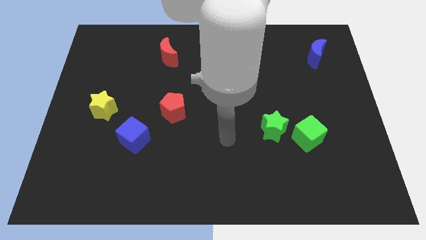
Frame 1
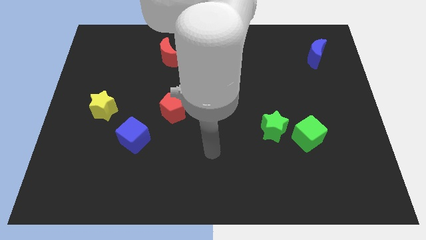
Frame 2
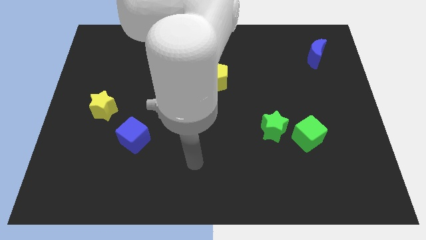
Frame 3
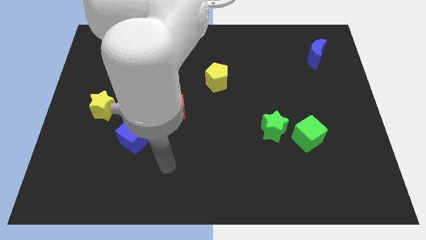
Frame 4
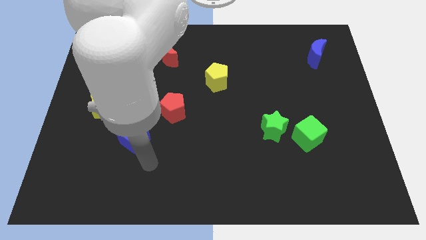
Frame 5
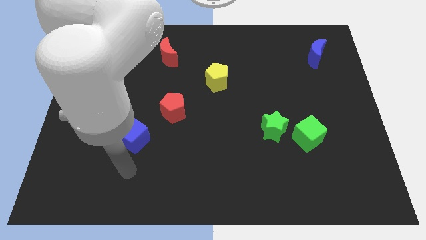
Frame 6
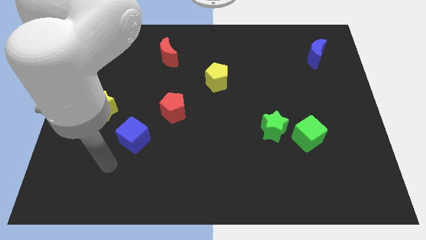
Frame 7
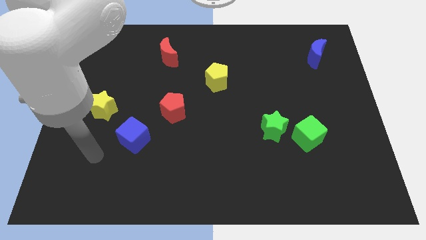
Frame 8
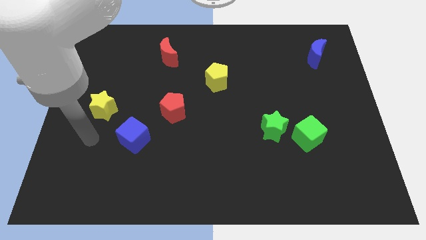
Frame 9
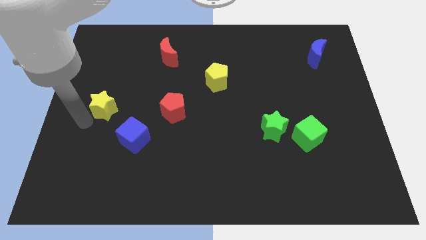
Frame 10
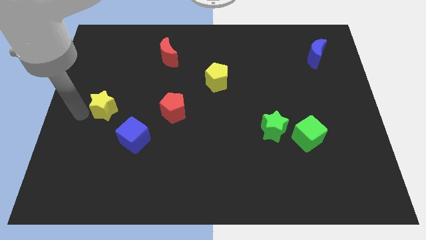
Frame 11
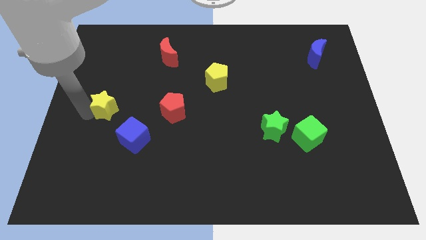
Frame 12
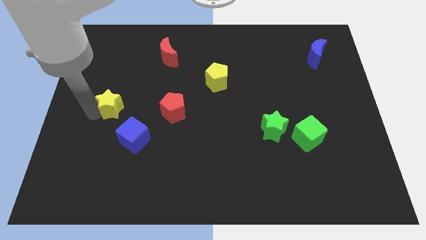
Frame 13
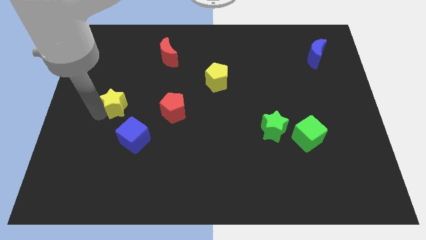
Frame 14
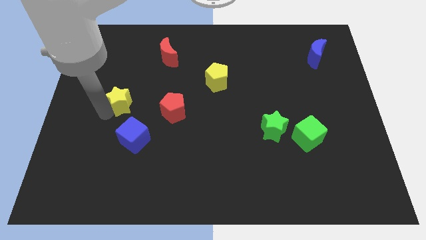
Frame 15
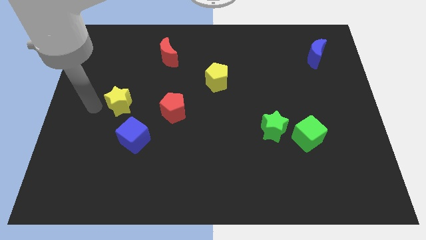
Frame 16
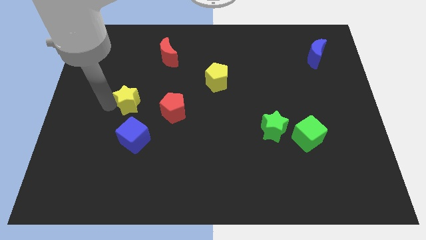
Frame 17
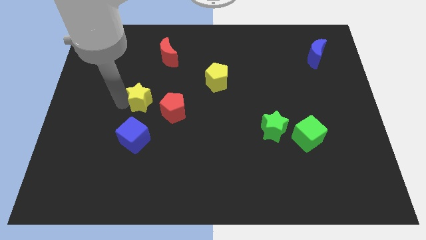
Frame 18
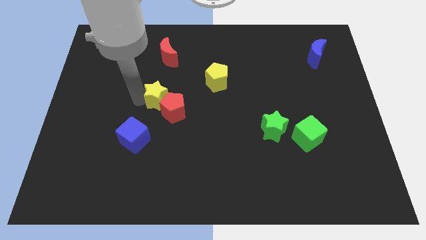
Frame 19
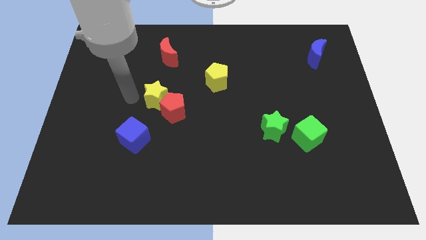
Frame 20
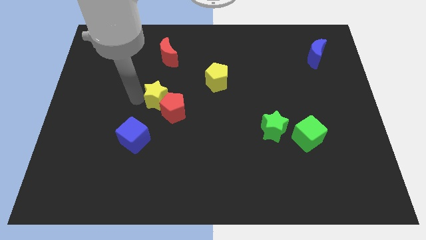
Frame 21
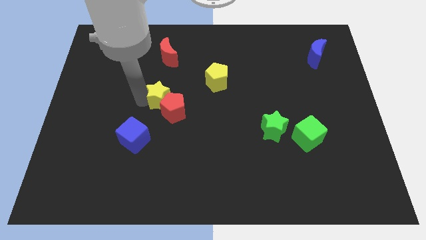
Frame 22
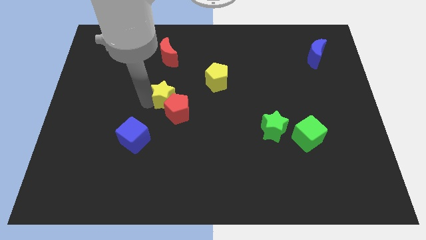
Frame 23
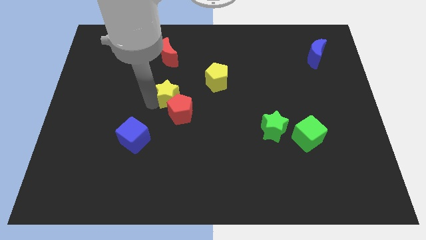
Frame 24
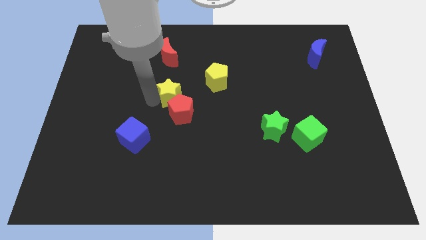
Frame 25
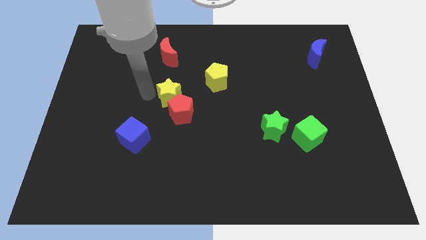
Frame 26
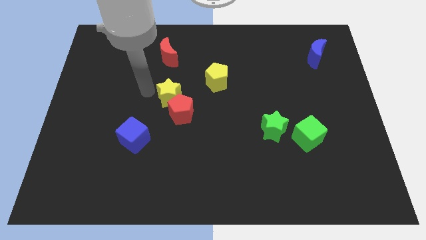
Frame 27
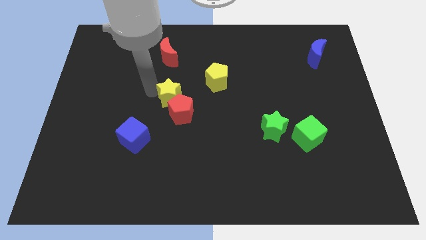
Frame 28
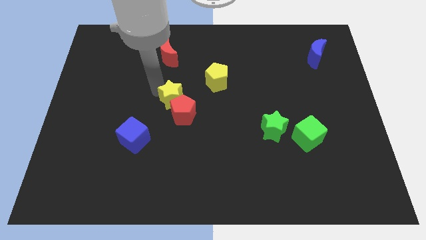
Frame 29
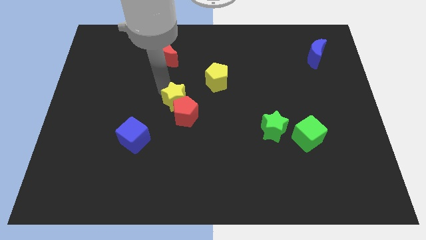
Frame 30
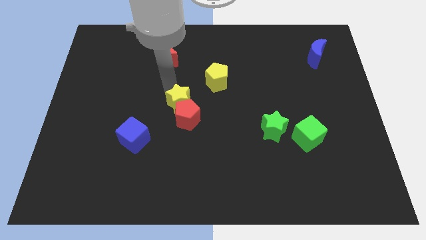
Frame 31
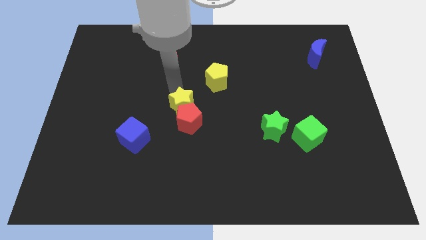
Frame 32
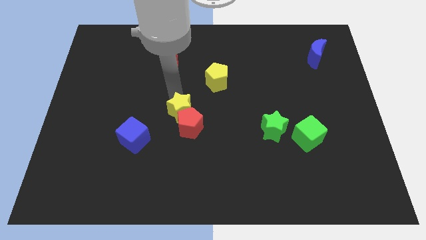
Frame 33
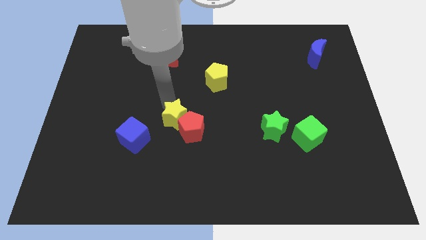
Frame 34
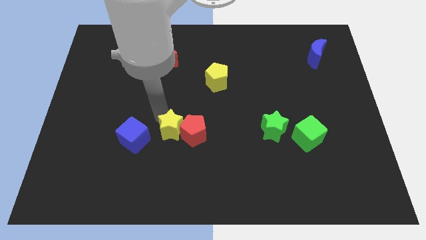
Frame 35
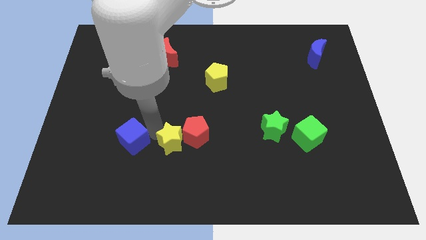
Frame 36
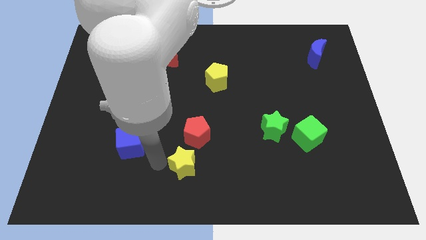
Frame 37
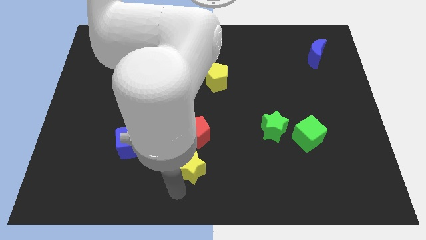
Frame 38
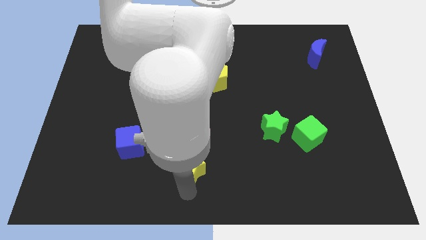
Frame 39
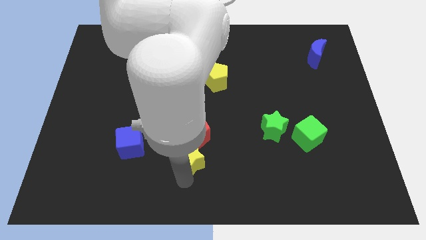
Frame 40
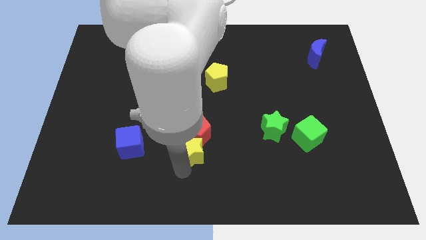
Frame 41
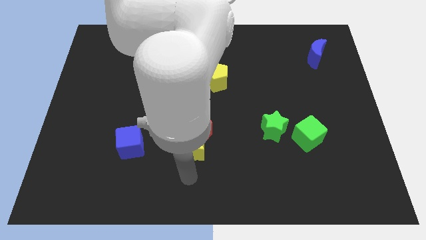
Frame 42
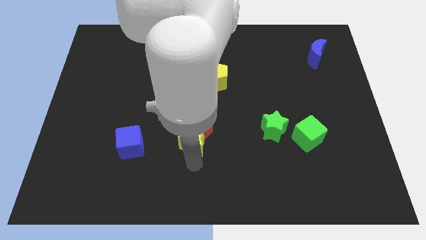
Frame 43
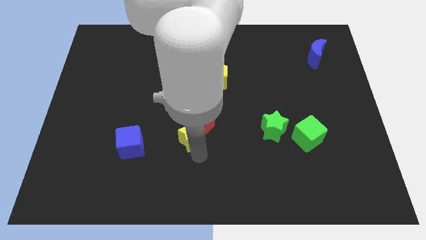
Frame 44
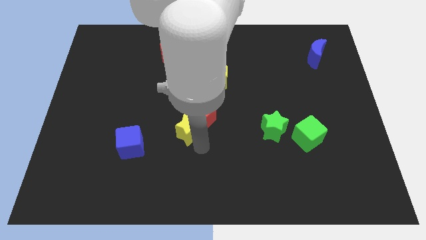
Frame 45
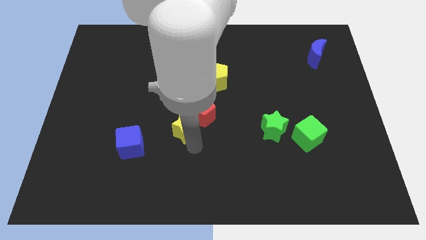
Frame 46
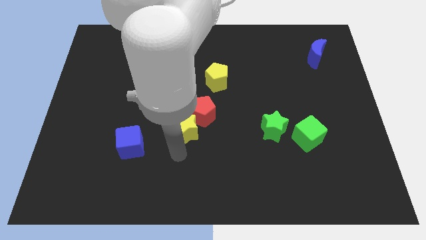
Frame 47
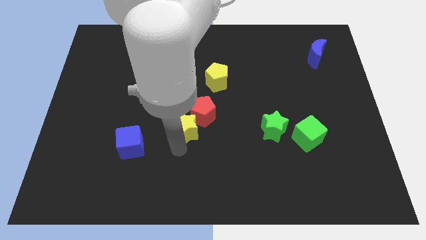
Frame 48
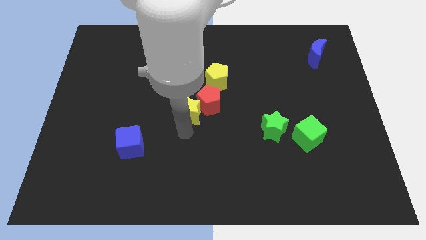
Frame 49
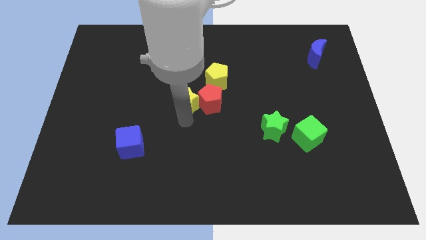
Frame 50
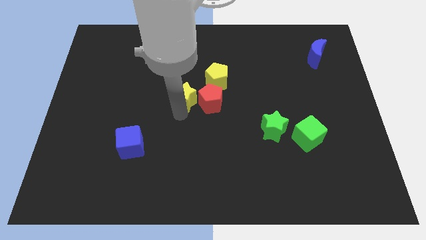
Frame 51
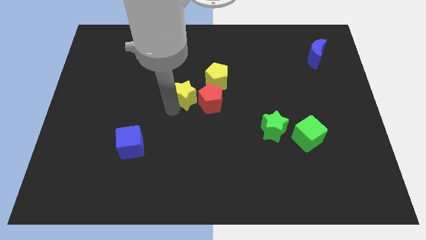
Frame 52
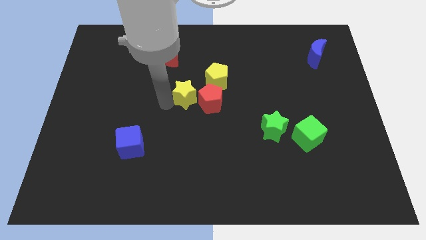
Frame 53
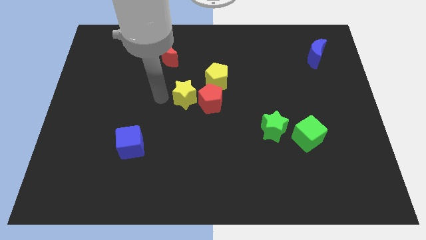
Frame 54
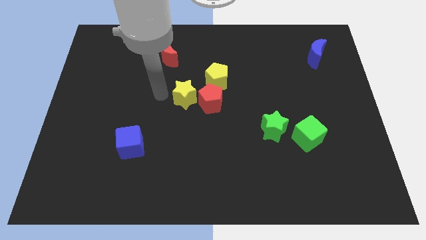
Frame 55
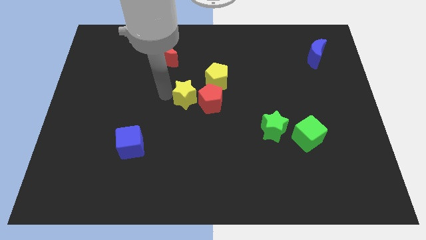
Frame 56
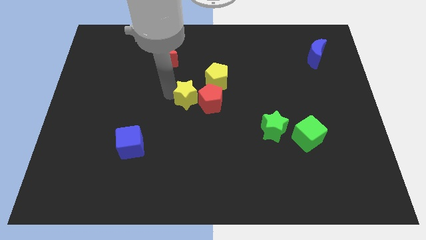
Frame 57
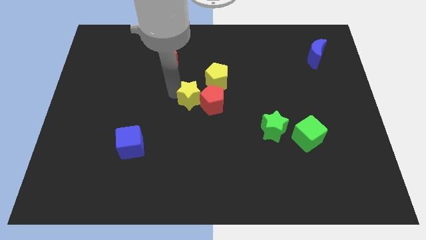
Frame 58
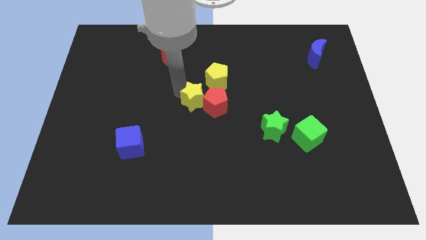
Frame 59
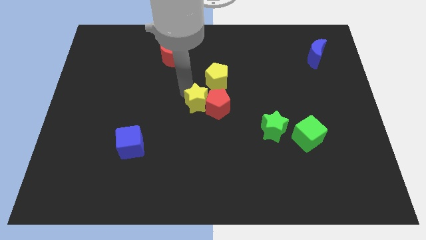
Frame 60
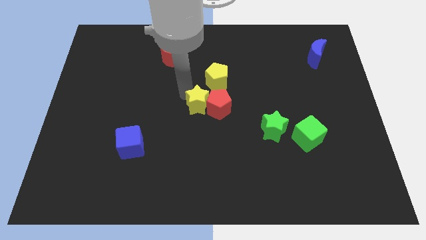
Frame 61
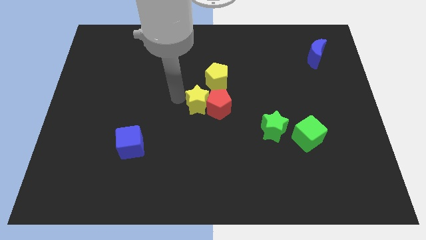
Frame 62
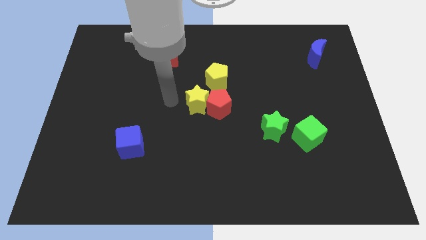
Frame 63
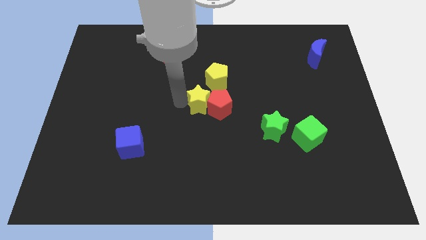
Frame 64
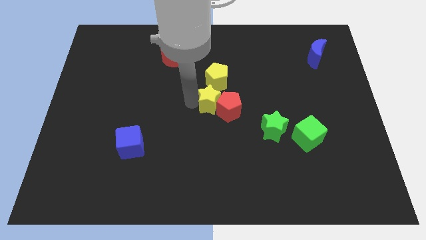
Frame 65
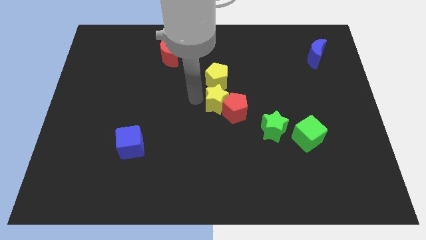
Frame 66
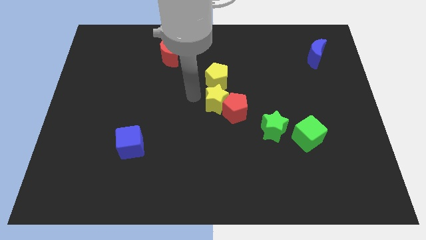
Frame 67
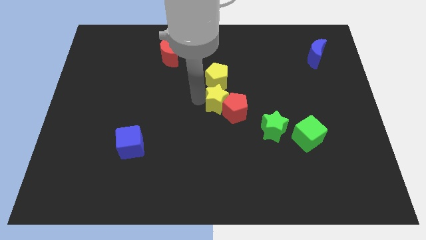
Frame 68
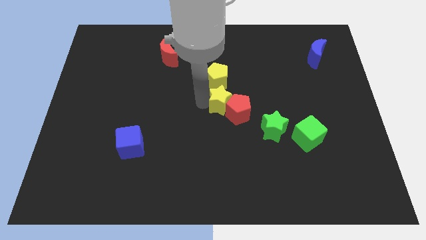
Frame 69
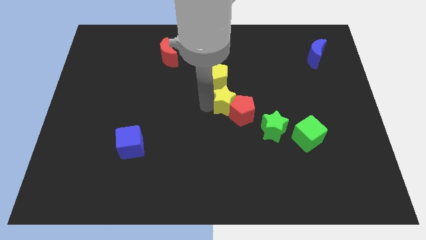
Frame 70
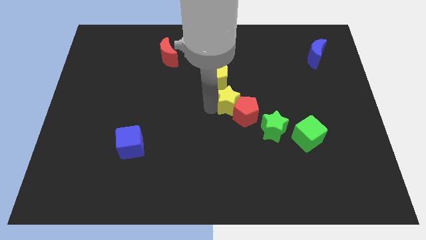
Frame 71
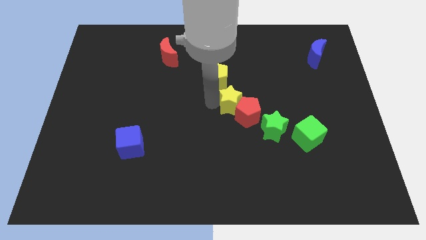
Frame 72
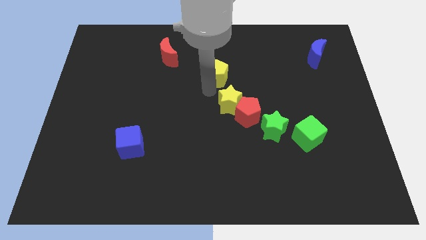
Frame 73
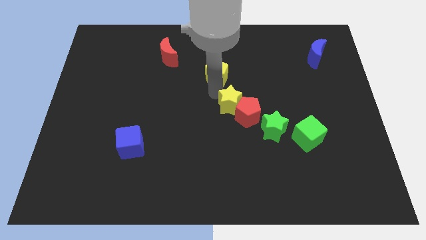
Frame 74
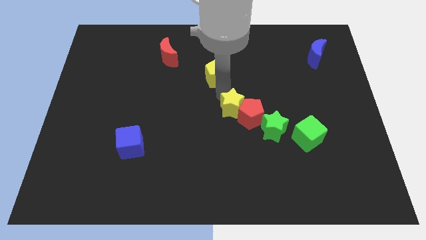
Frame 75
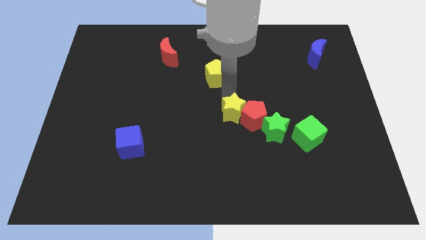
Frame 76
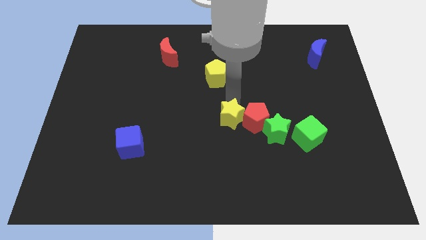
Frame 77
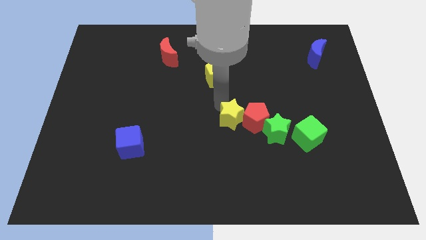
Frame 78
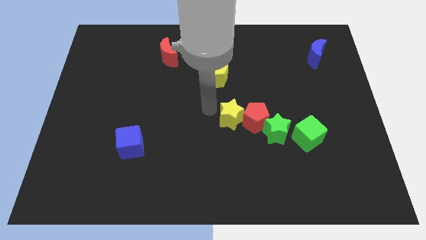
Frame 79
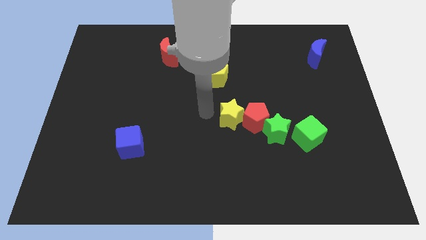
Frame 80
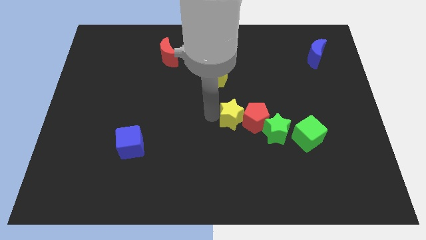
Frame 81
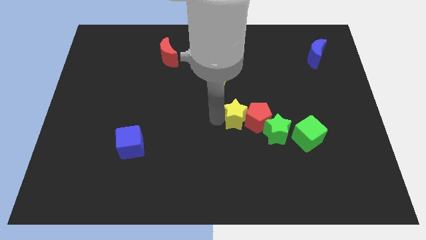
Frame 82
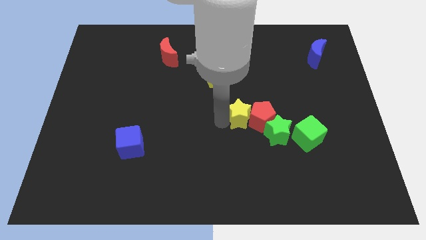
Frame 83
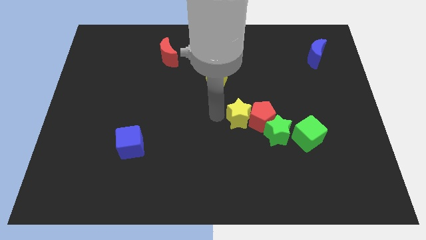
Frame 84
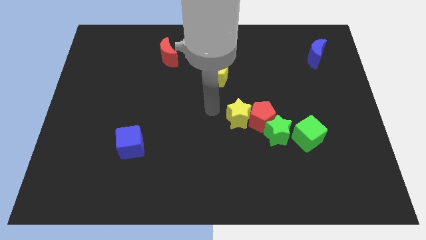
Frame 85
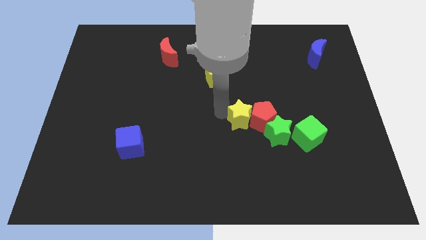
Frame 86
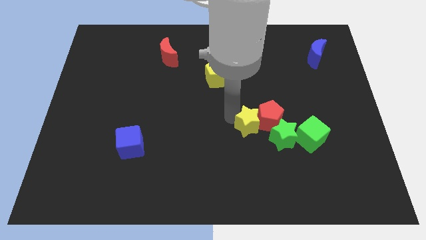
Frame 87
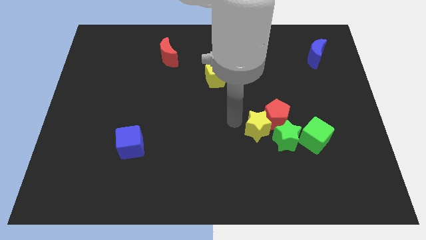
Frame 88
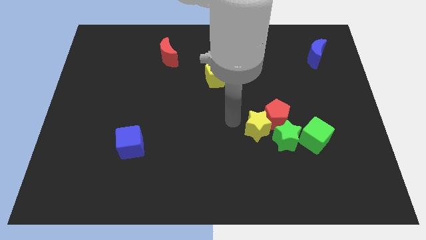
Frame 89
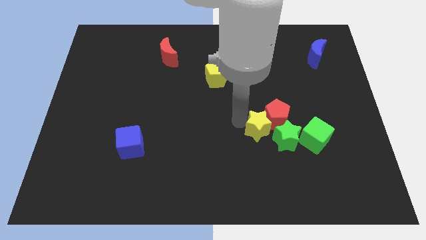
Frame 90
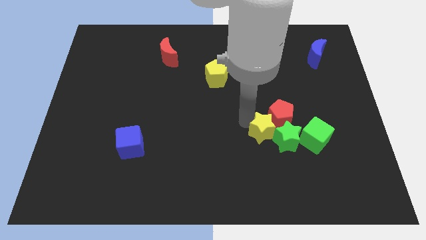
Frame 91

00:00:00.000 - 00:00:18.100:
put the yellow star close to the green star
